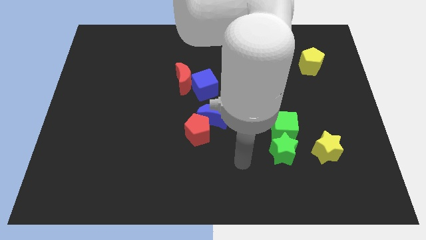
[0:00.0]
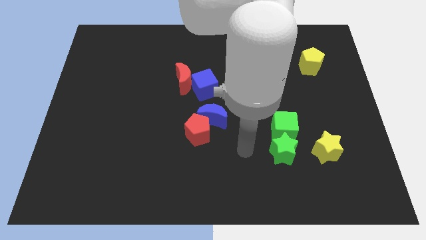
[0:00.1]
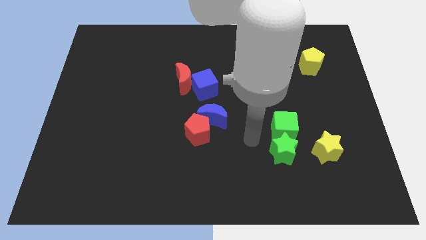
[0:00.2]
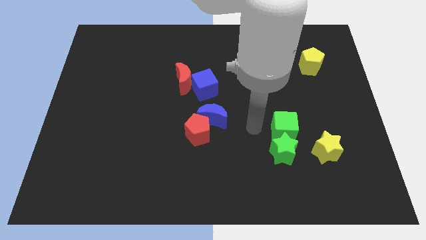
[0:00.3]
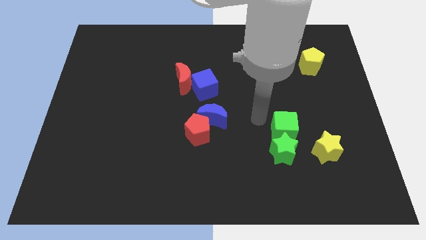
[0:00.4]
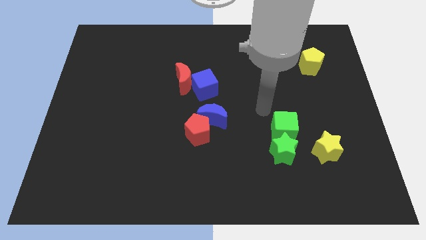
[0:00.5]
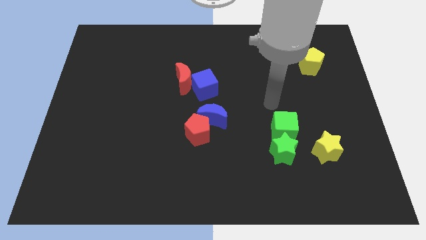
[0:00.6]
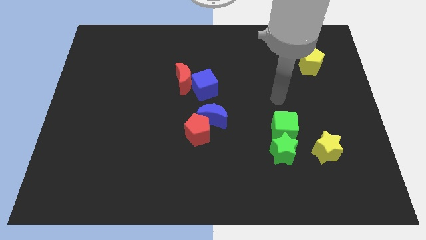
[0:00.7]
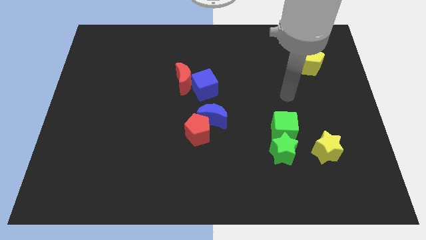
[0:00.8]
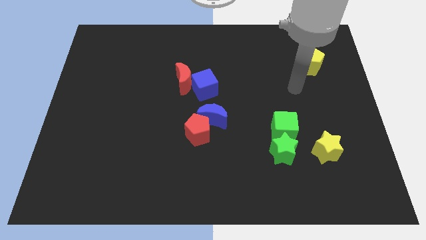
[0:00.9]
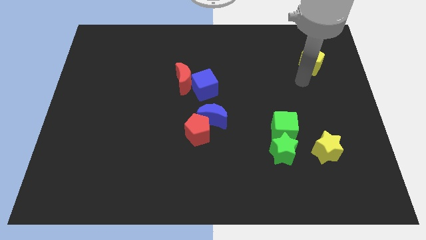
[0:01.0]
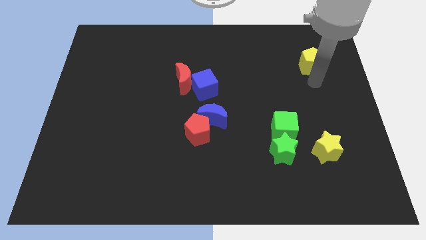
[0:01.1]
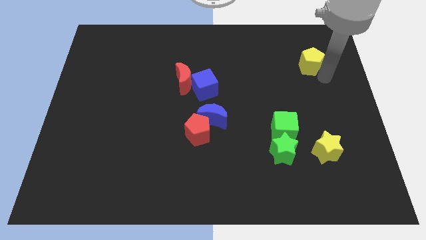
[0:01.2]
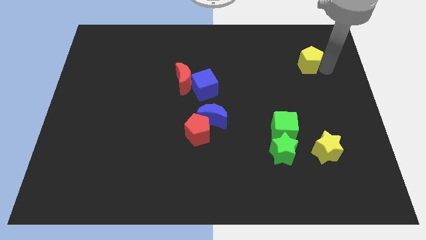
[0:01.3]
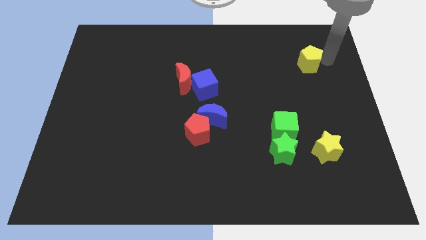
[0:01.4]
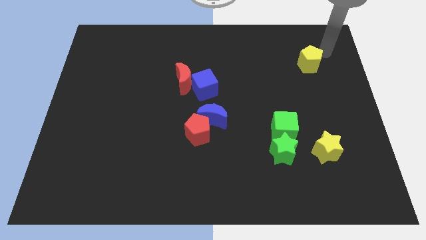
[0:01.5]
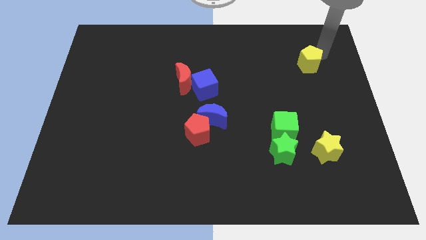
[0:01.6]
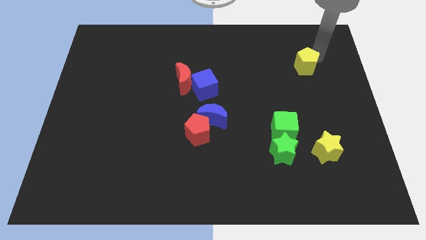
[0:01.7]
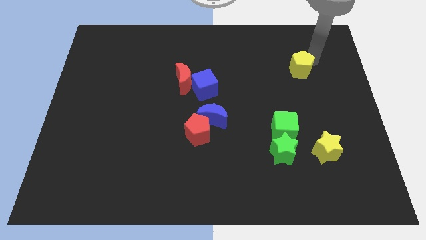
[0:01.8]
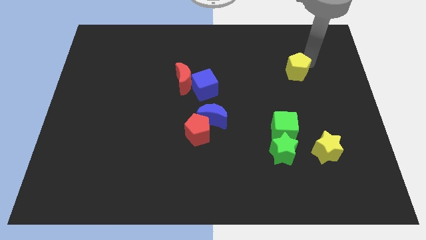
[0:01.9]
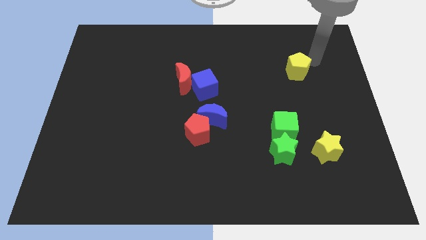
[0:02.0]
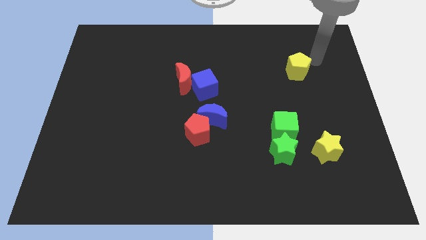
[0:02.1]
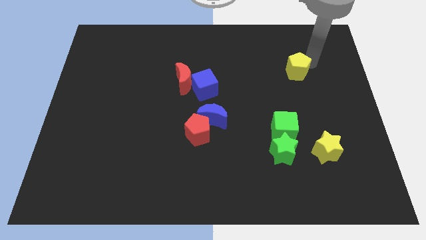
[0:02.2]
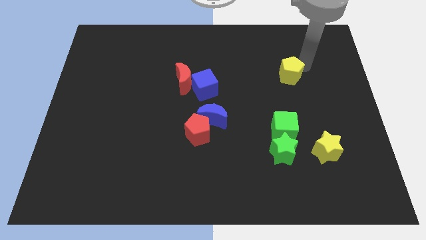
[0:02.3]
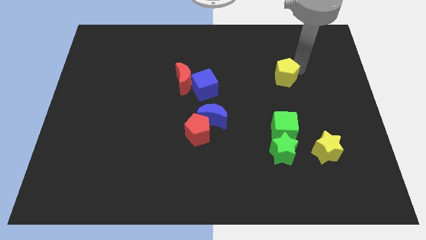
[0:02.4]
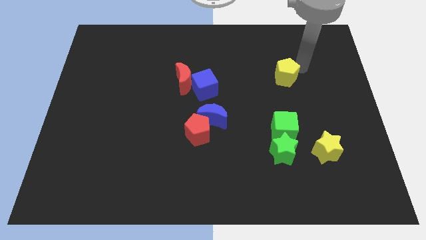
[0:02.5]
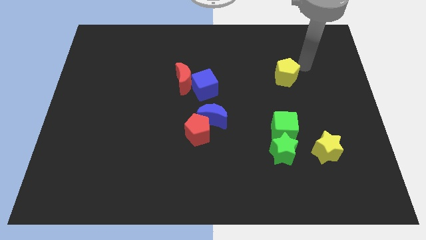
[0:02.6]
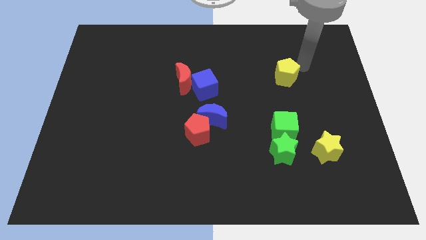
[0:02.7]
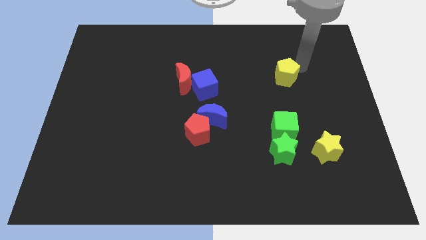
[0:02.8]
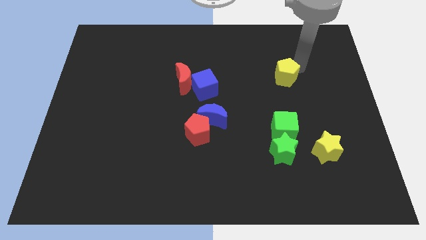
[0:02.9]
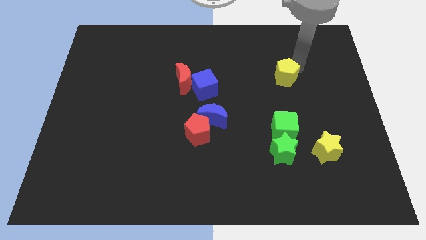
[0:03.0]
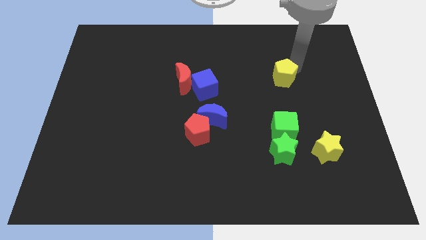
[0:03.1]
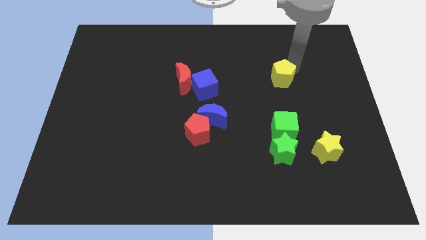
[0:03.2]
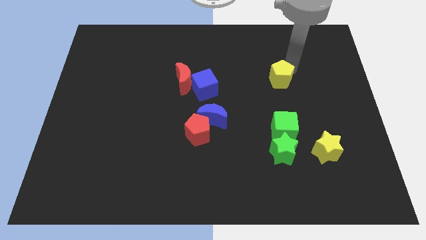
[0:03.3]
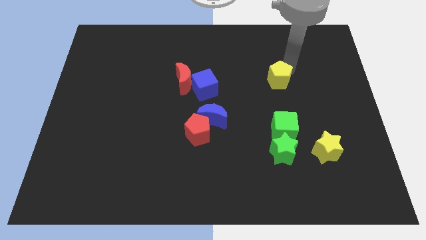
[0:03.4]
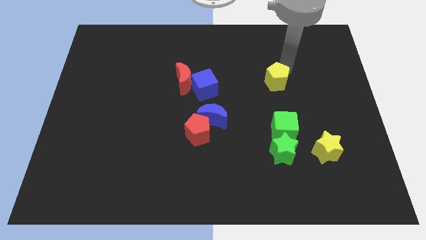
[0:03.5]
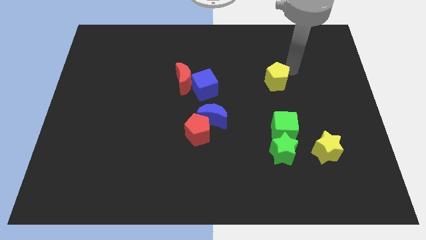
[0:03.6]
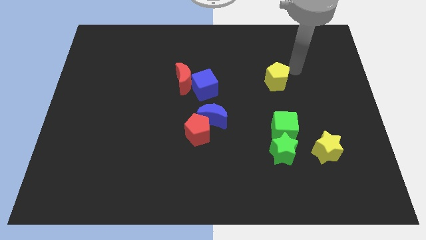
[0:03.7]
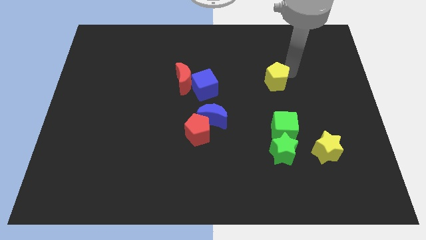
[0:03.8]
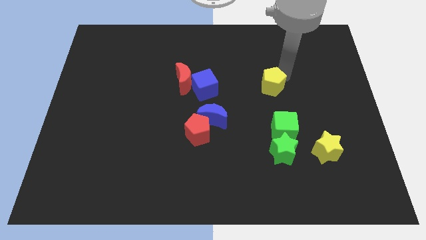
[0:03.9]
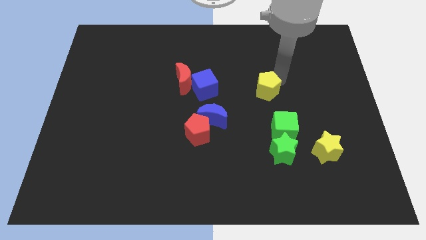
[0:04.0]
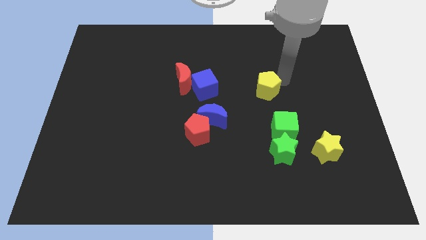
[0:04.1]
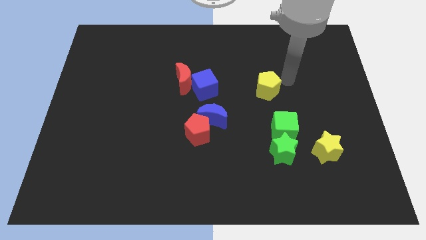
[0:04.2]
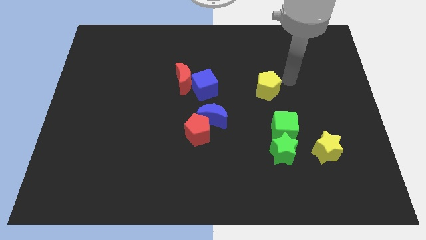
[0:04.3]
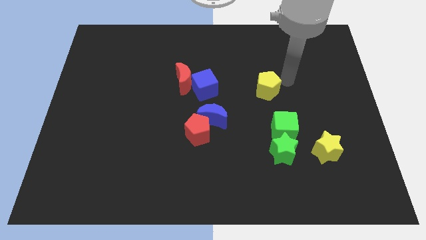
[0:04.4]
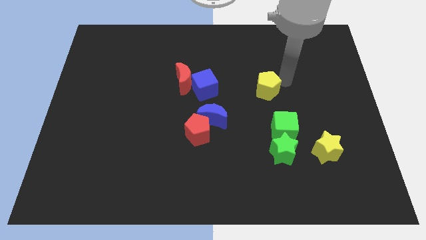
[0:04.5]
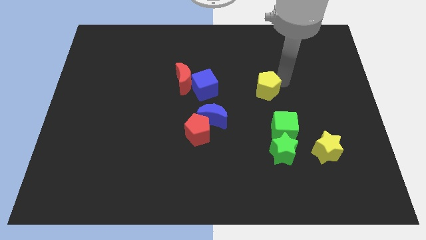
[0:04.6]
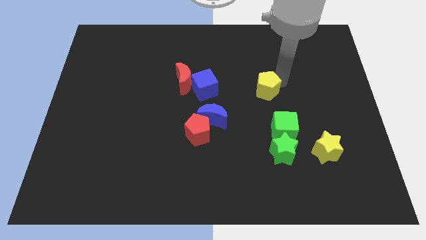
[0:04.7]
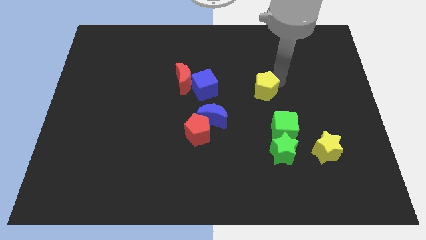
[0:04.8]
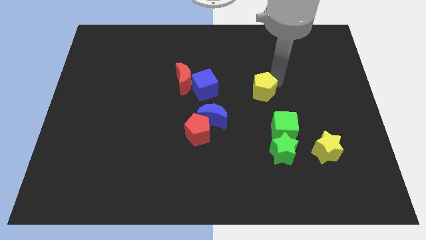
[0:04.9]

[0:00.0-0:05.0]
move the yellow pentagon to the middle of the board
